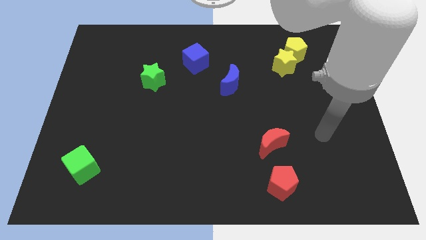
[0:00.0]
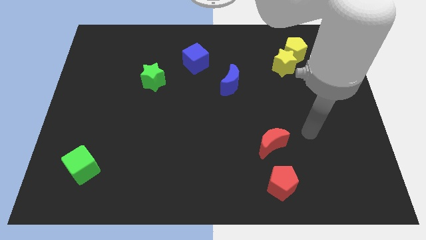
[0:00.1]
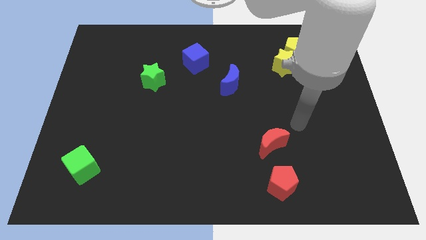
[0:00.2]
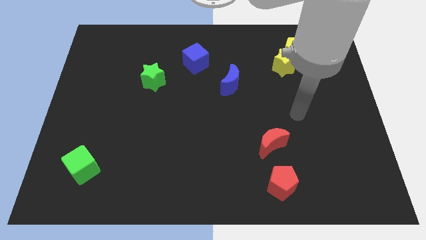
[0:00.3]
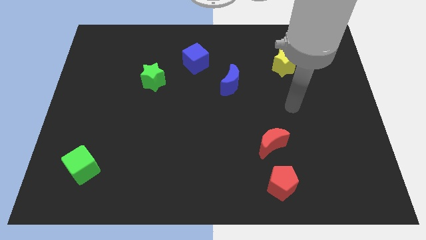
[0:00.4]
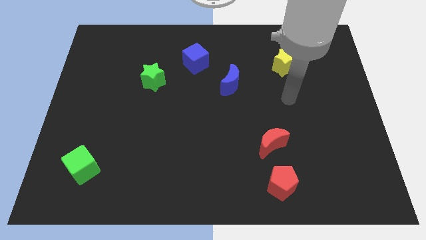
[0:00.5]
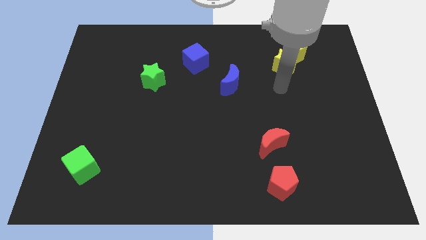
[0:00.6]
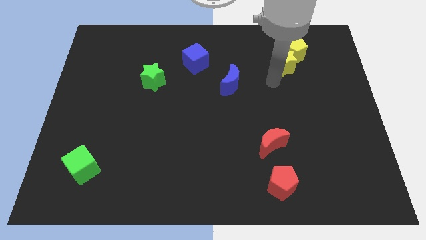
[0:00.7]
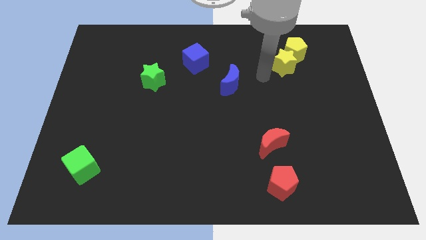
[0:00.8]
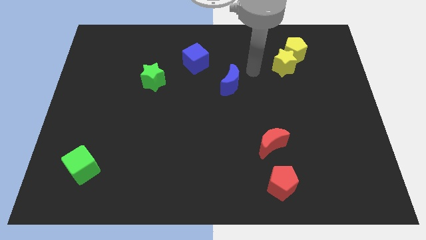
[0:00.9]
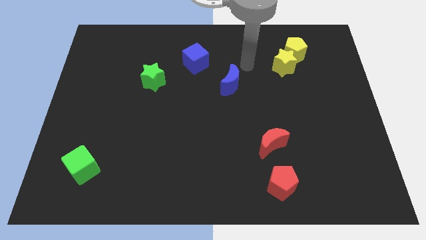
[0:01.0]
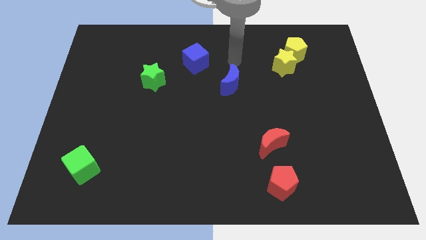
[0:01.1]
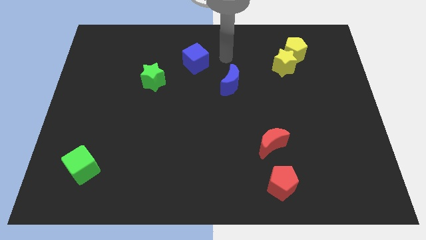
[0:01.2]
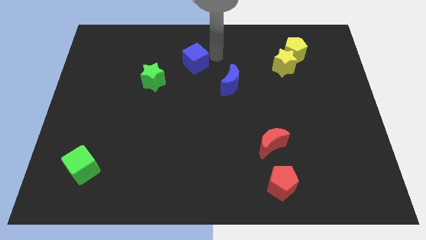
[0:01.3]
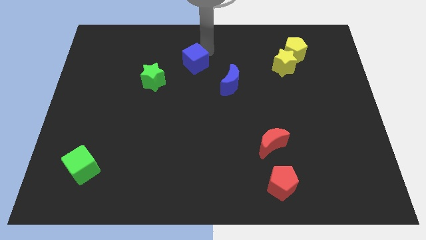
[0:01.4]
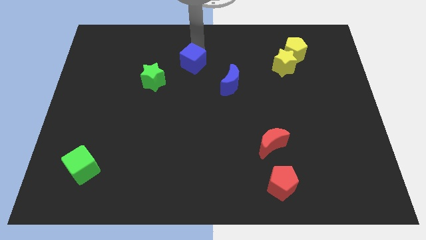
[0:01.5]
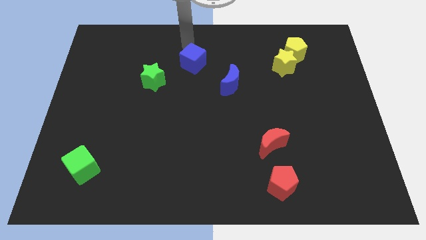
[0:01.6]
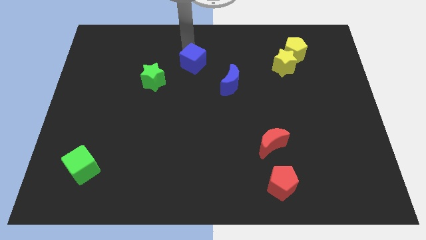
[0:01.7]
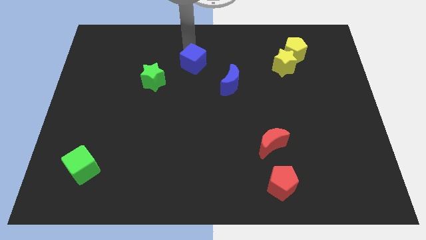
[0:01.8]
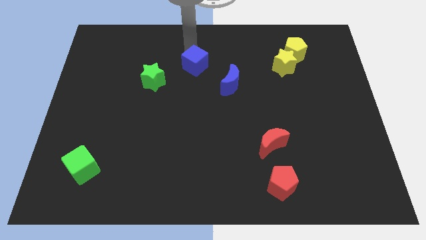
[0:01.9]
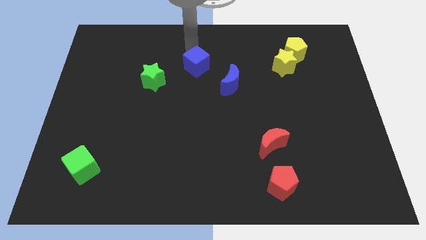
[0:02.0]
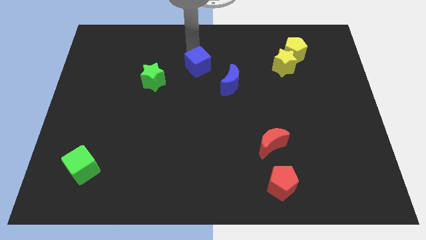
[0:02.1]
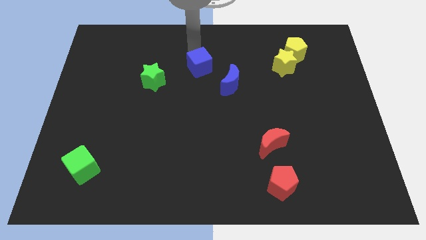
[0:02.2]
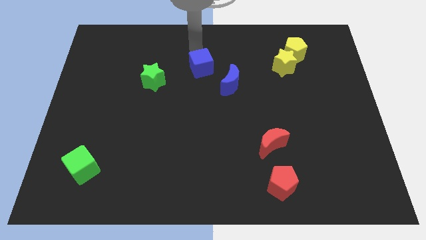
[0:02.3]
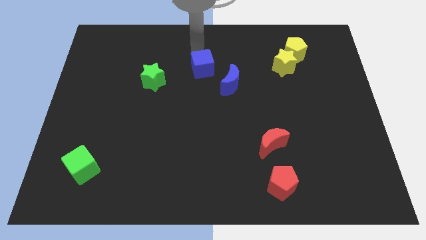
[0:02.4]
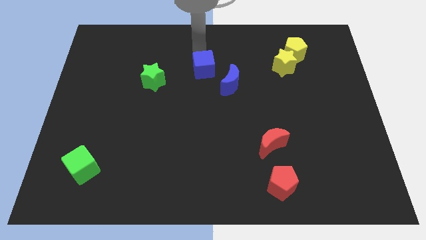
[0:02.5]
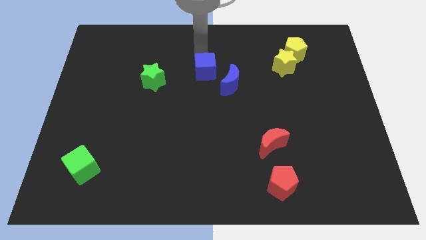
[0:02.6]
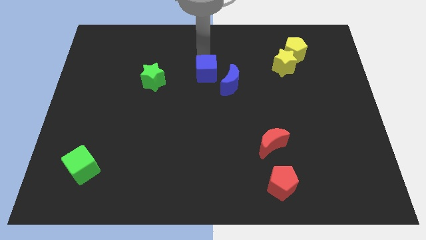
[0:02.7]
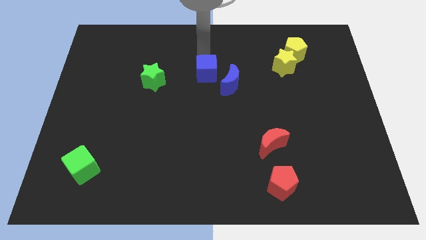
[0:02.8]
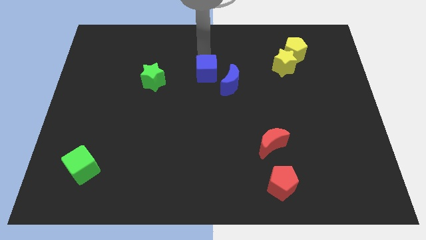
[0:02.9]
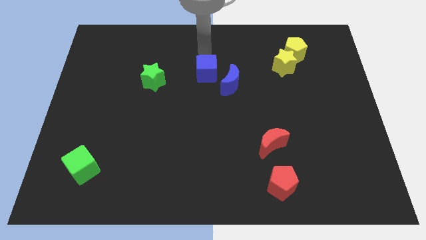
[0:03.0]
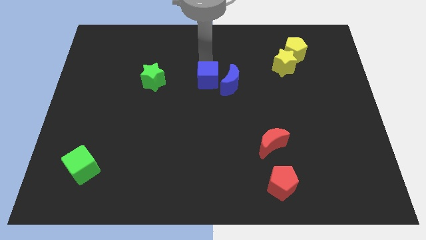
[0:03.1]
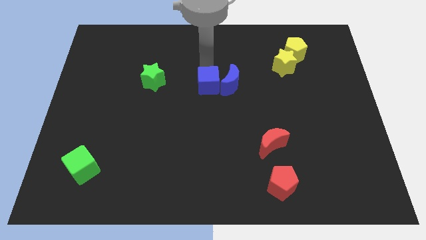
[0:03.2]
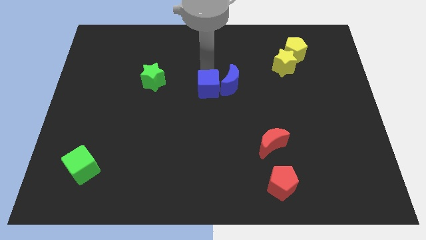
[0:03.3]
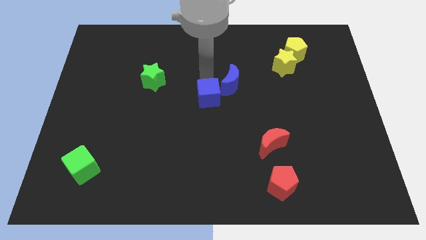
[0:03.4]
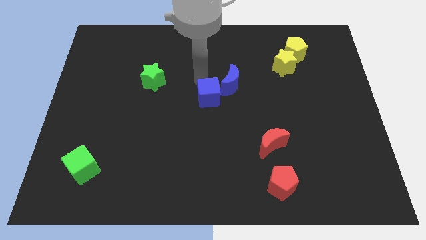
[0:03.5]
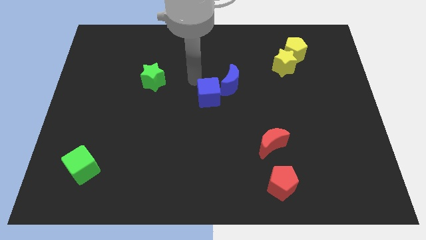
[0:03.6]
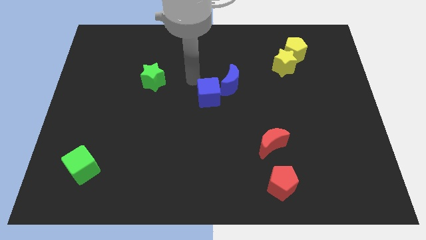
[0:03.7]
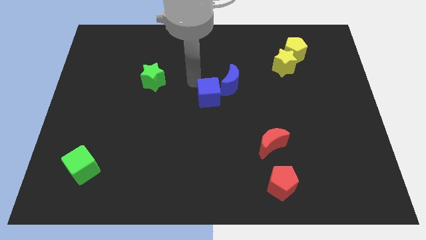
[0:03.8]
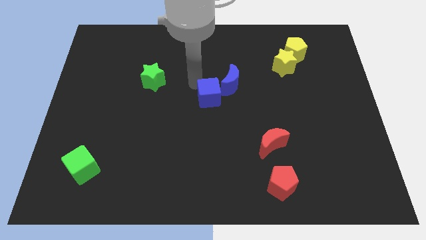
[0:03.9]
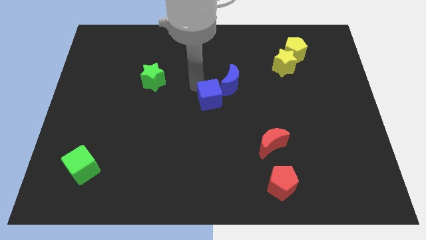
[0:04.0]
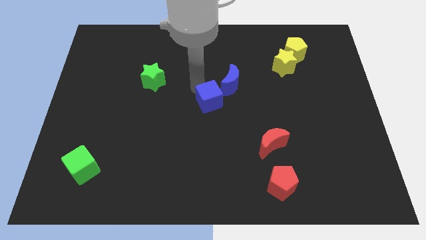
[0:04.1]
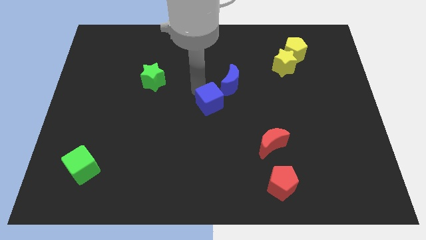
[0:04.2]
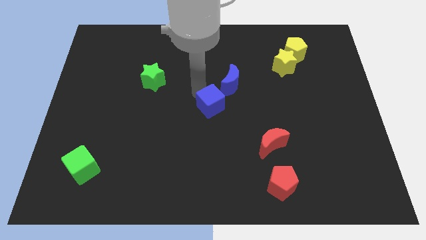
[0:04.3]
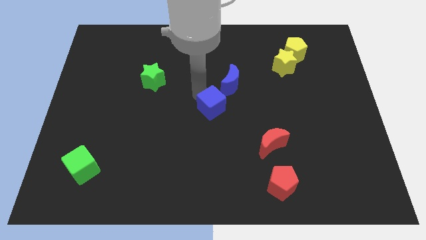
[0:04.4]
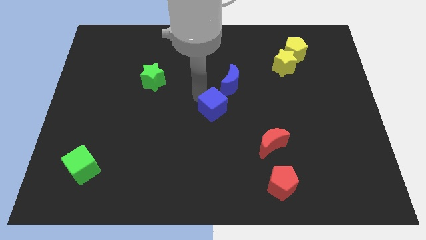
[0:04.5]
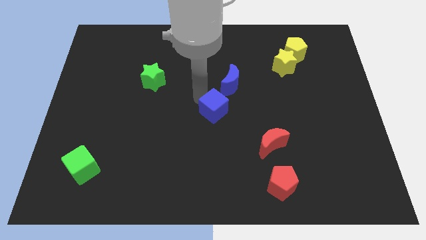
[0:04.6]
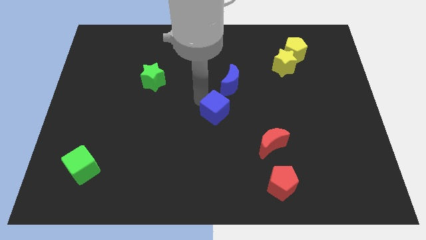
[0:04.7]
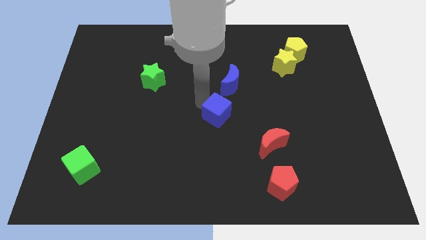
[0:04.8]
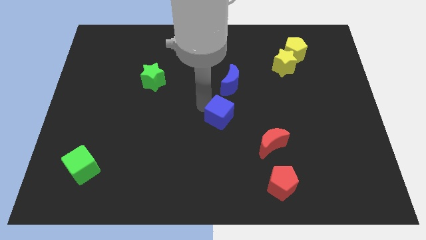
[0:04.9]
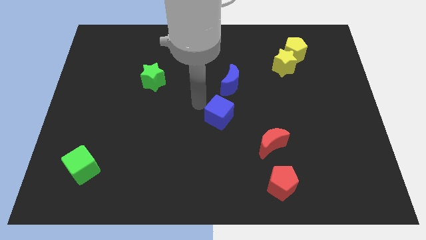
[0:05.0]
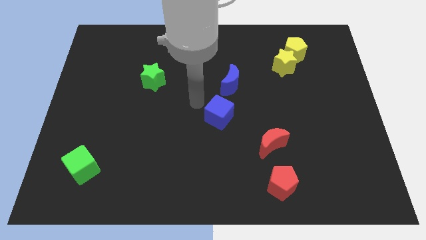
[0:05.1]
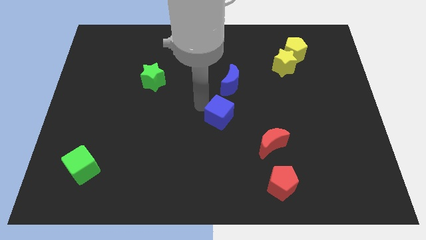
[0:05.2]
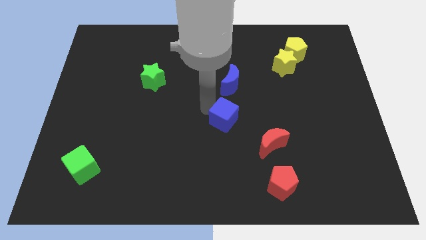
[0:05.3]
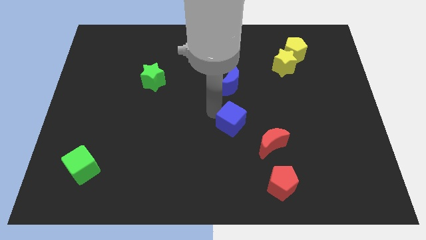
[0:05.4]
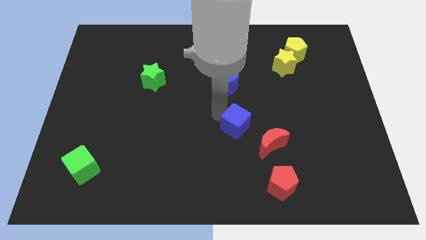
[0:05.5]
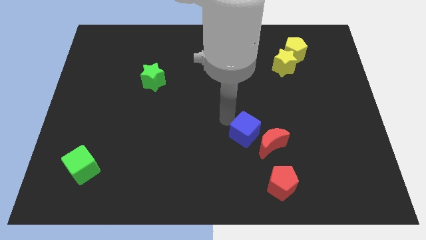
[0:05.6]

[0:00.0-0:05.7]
slide the blue cube next to the red moon

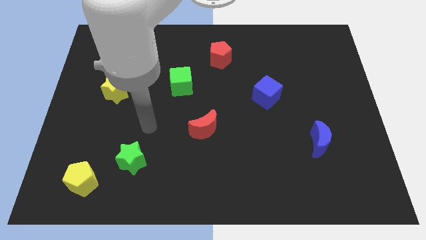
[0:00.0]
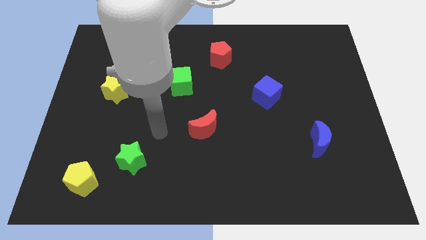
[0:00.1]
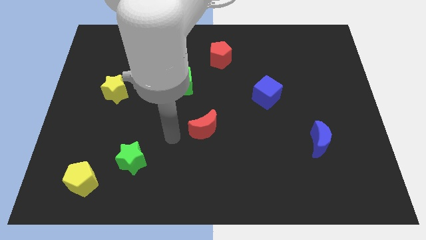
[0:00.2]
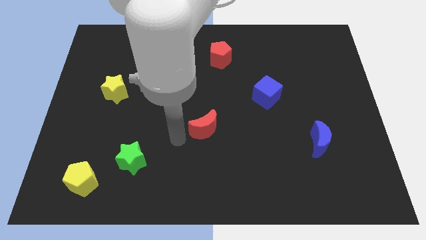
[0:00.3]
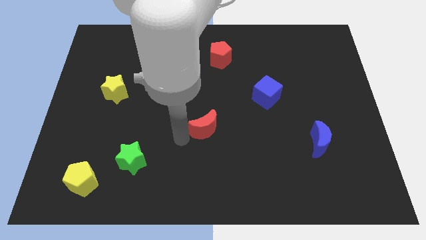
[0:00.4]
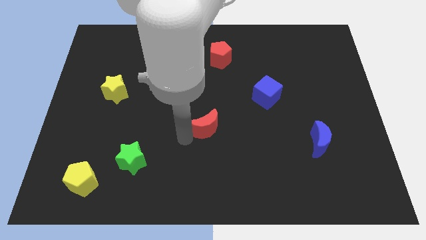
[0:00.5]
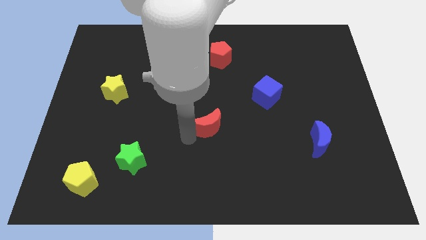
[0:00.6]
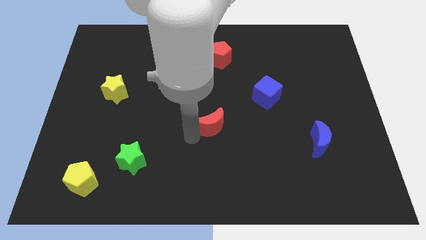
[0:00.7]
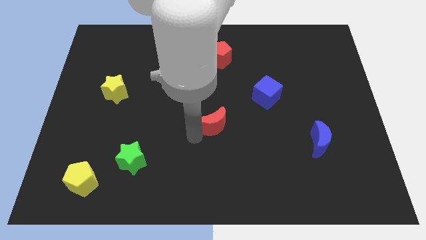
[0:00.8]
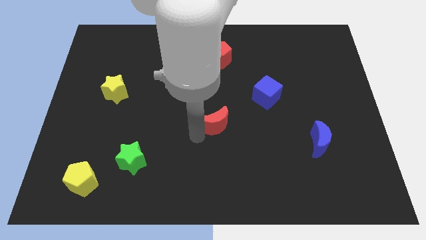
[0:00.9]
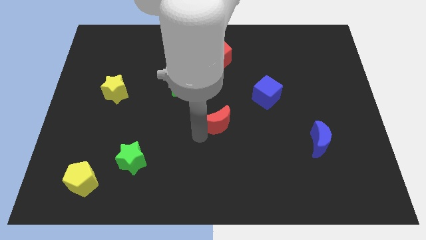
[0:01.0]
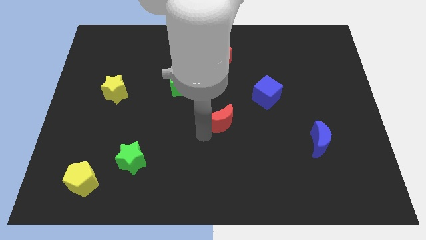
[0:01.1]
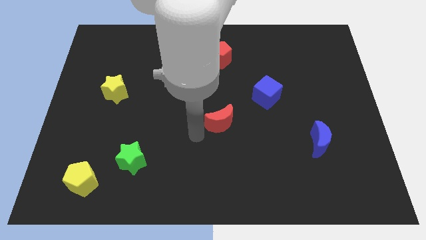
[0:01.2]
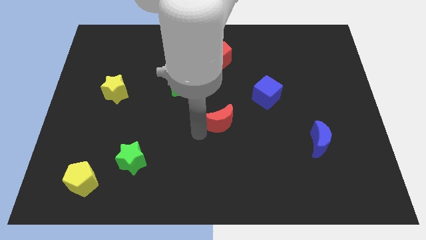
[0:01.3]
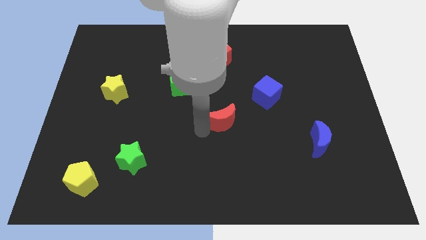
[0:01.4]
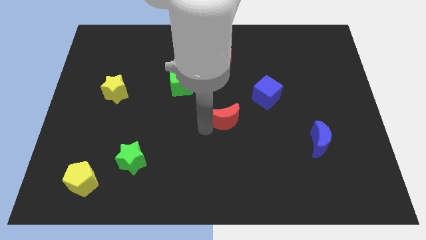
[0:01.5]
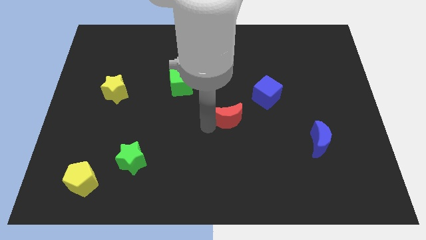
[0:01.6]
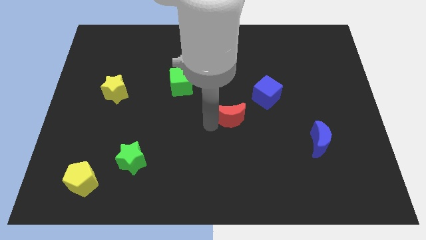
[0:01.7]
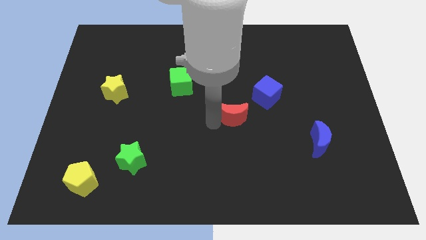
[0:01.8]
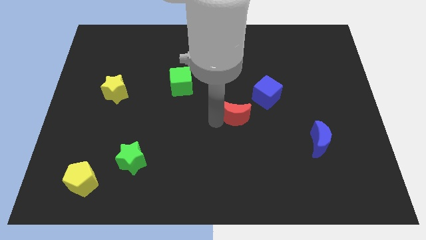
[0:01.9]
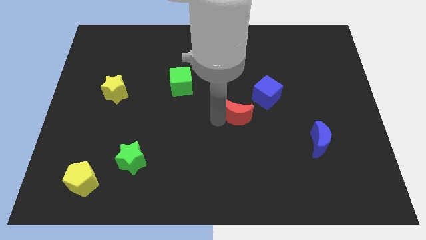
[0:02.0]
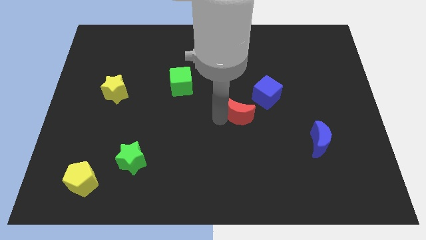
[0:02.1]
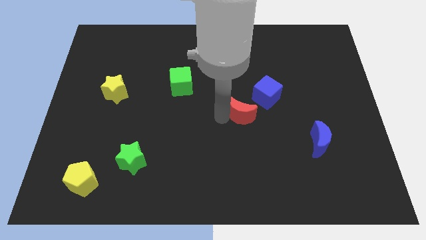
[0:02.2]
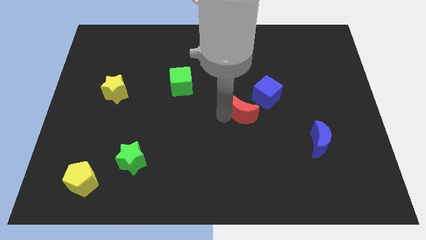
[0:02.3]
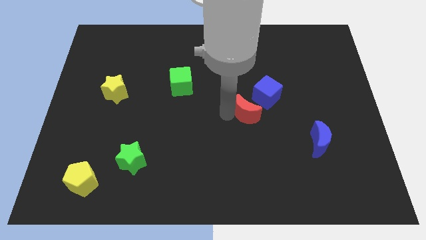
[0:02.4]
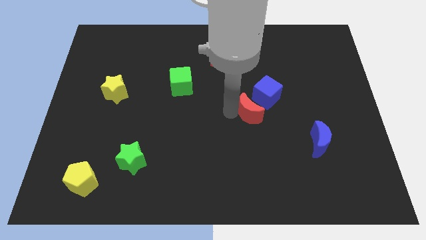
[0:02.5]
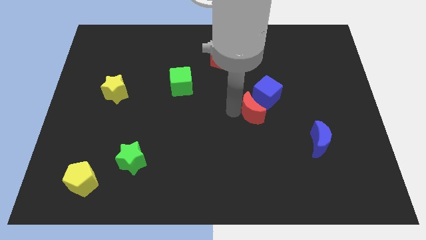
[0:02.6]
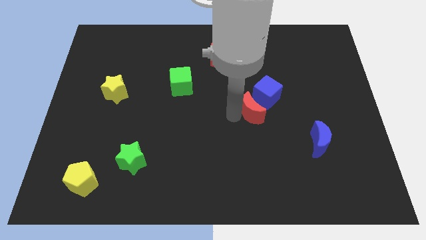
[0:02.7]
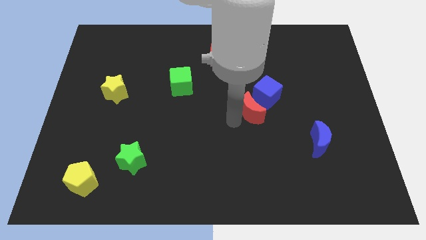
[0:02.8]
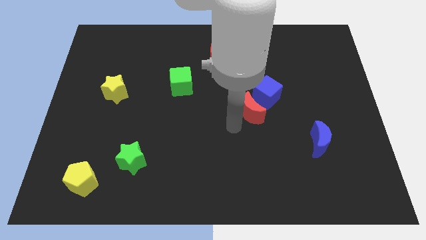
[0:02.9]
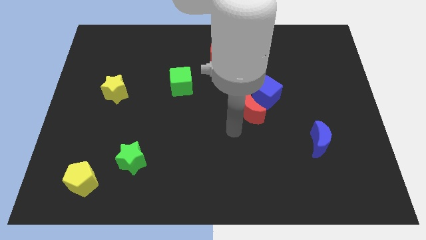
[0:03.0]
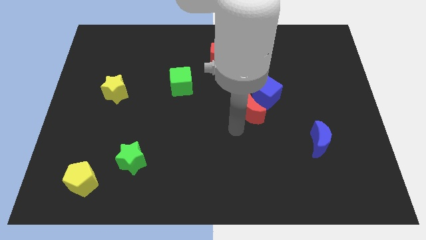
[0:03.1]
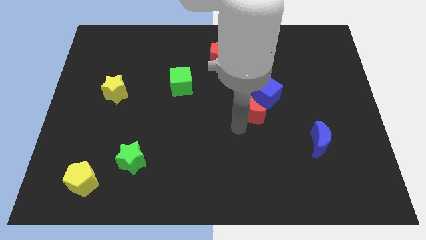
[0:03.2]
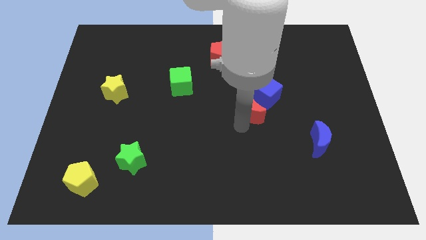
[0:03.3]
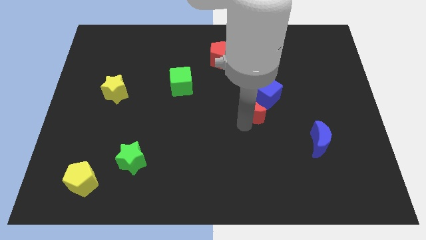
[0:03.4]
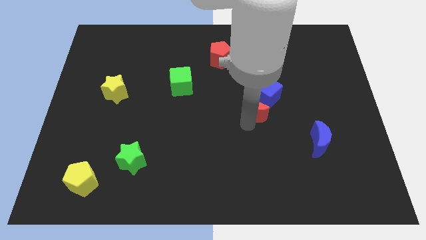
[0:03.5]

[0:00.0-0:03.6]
push the red moon close to the blue cube
